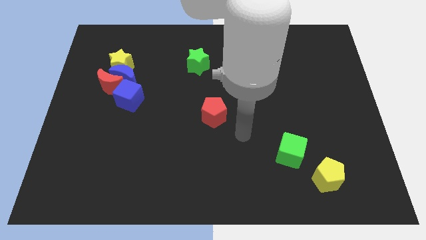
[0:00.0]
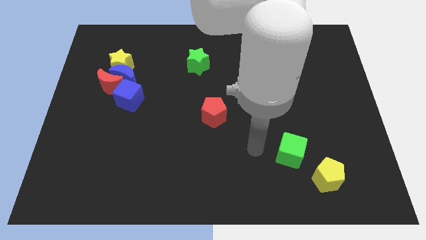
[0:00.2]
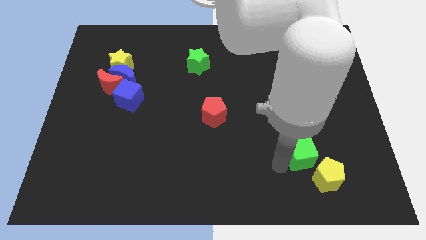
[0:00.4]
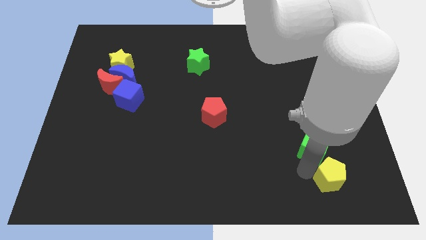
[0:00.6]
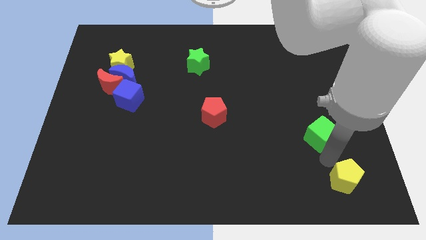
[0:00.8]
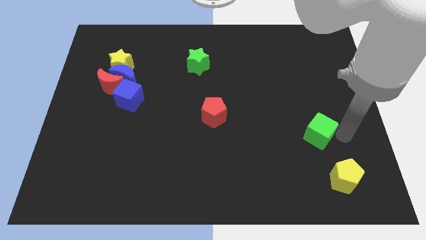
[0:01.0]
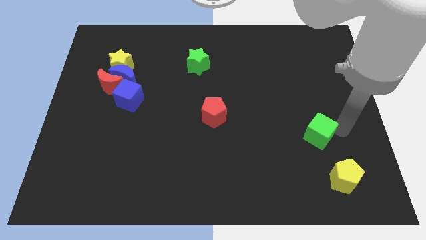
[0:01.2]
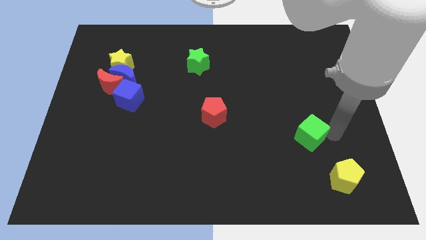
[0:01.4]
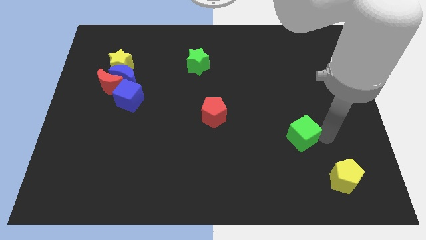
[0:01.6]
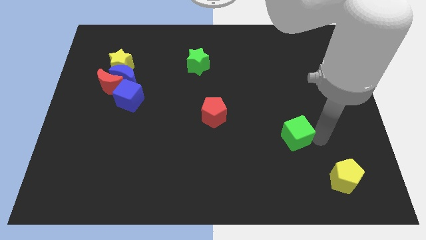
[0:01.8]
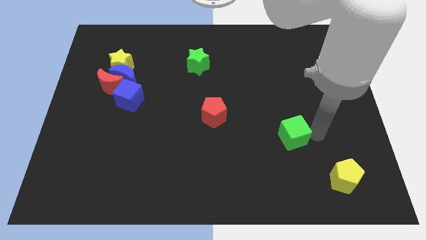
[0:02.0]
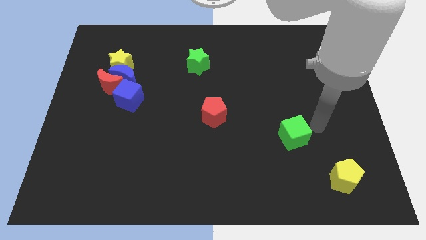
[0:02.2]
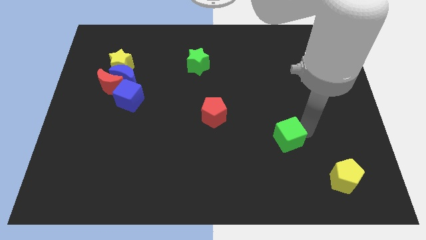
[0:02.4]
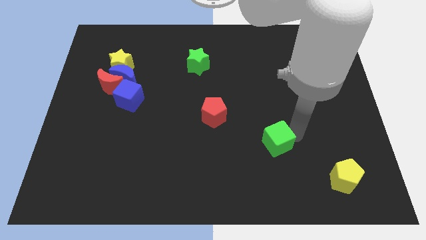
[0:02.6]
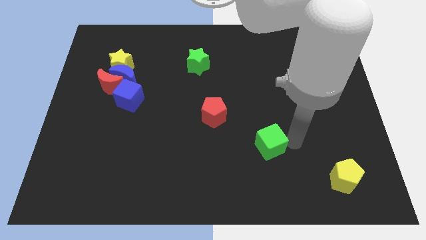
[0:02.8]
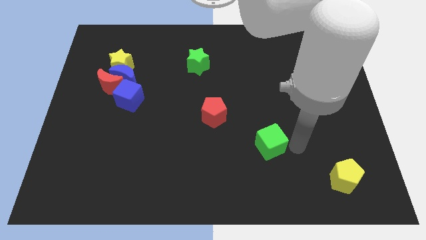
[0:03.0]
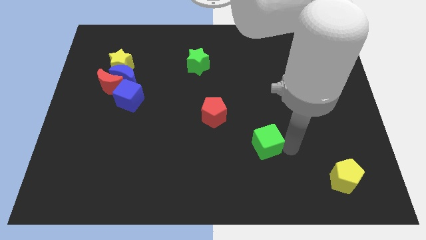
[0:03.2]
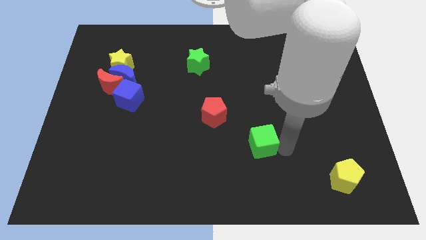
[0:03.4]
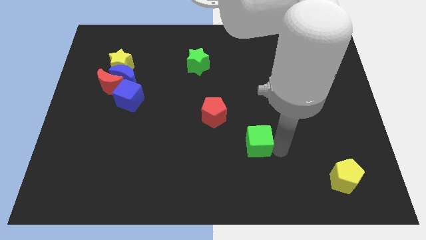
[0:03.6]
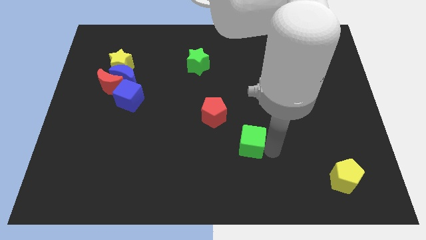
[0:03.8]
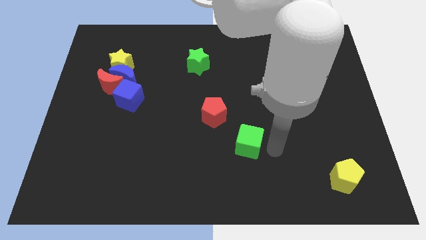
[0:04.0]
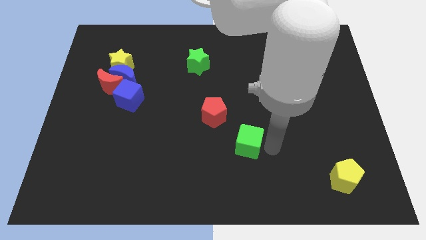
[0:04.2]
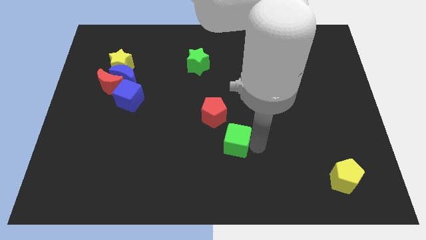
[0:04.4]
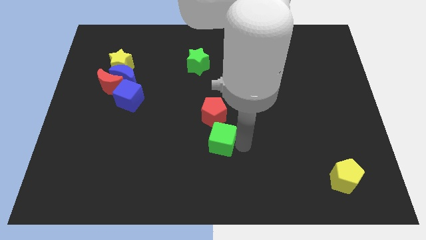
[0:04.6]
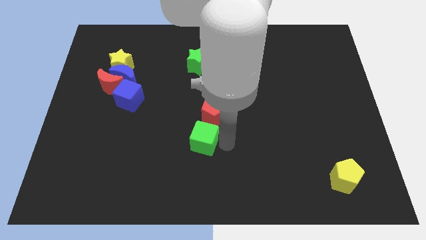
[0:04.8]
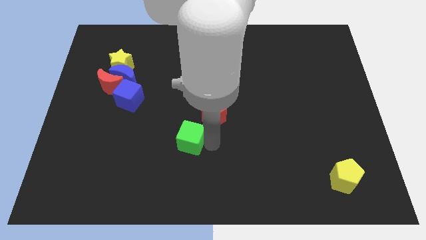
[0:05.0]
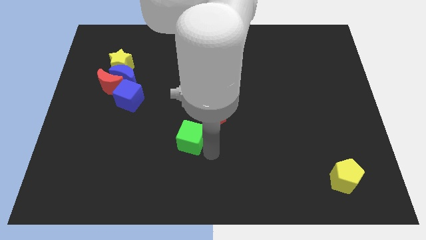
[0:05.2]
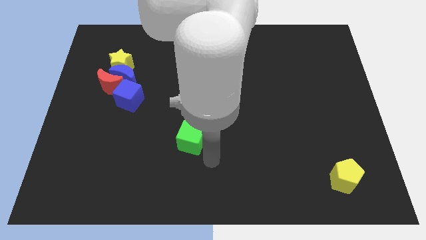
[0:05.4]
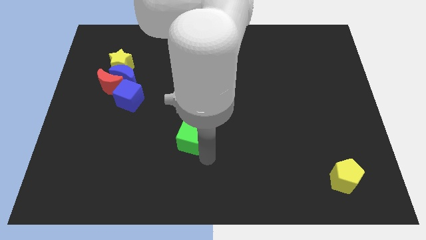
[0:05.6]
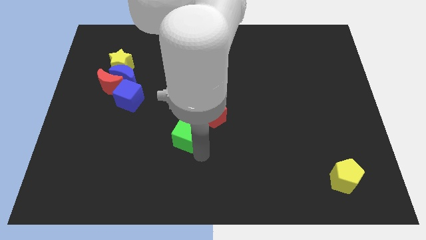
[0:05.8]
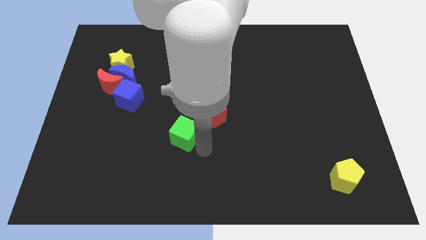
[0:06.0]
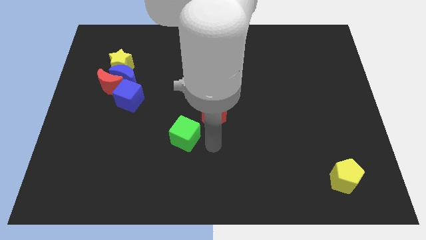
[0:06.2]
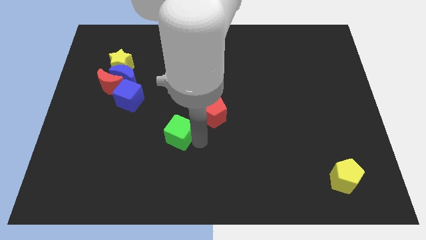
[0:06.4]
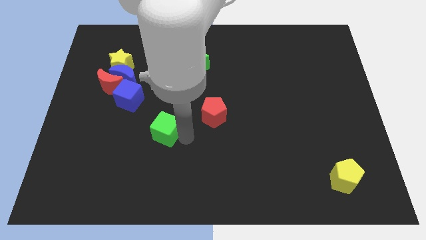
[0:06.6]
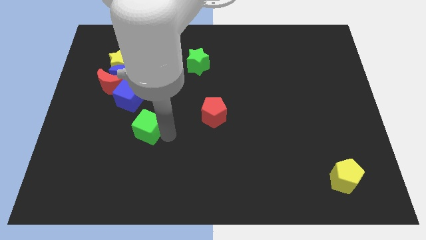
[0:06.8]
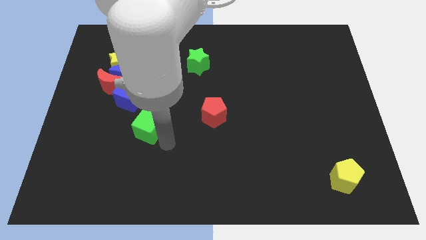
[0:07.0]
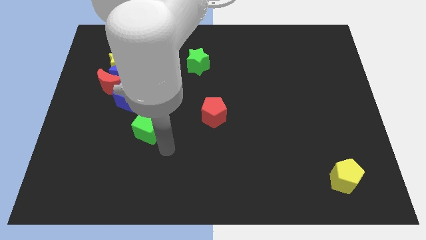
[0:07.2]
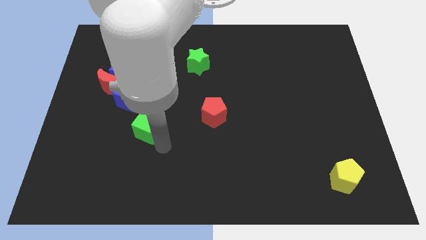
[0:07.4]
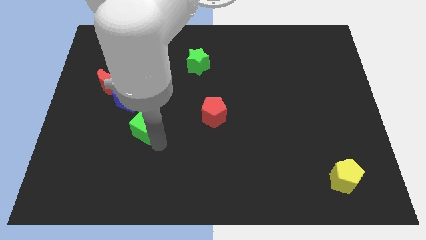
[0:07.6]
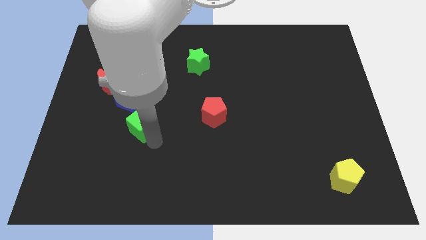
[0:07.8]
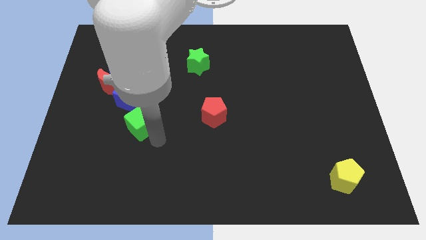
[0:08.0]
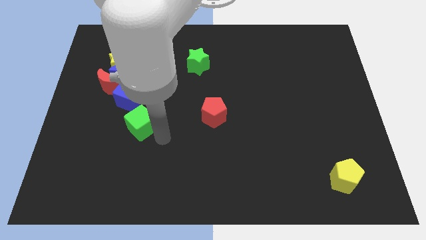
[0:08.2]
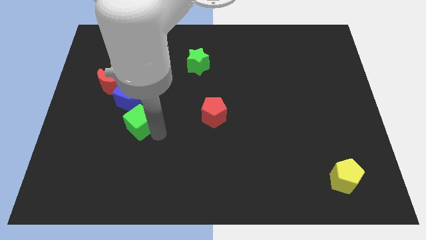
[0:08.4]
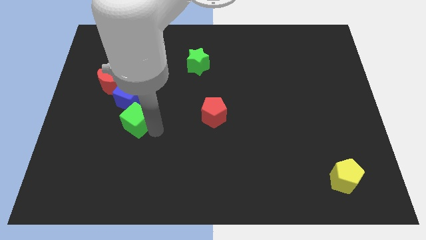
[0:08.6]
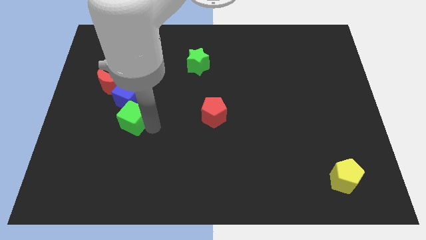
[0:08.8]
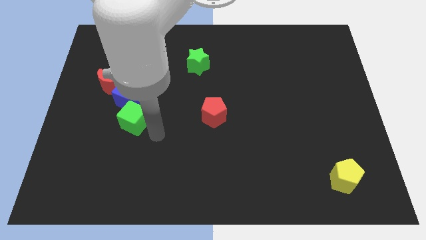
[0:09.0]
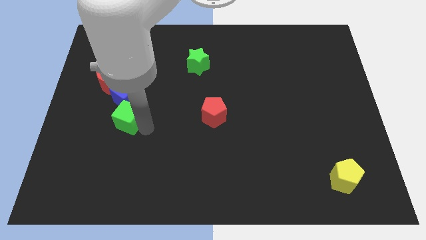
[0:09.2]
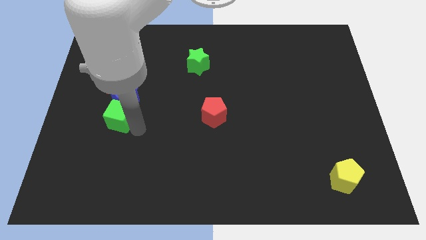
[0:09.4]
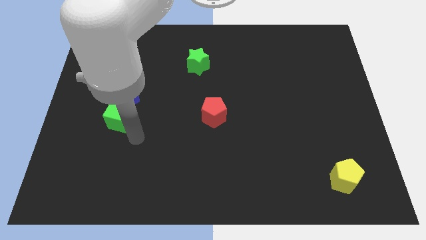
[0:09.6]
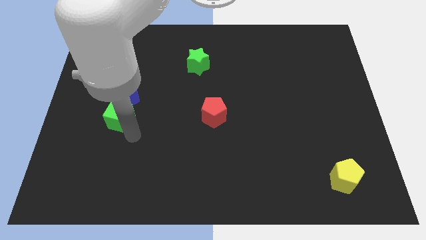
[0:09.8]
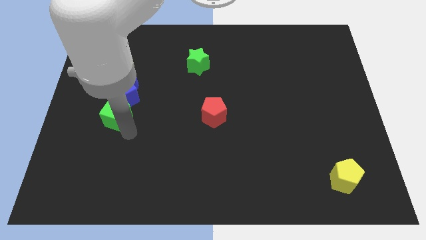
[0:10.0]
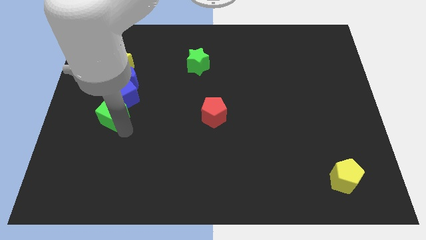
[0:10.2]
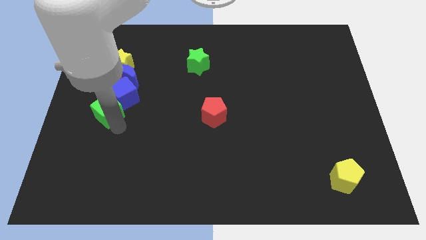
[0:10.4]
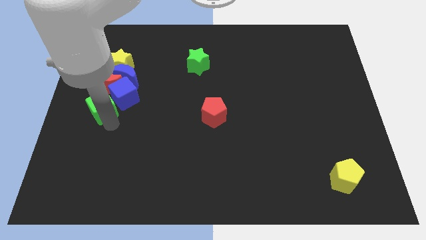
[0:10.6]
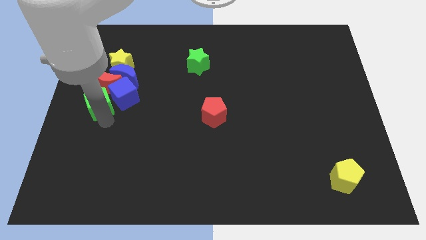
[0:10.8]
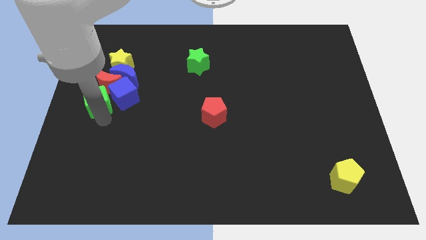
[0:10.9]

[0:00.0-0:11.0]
put the green cube close to the red moon

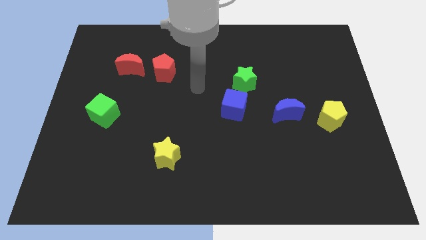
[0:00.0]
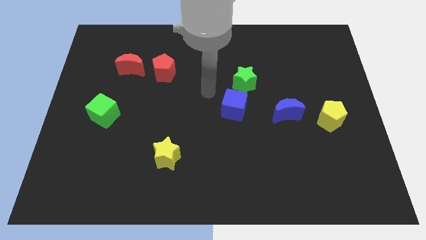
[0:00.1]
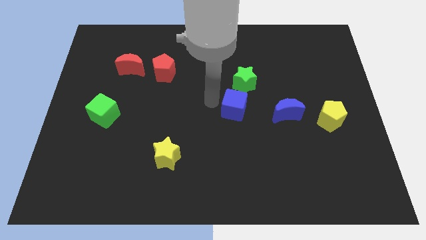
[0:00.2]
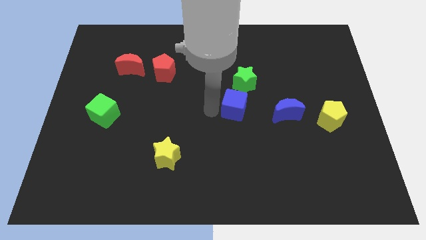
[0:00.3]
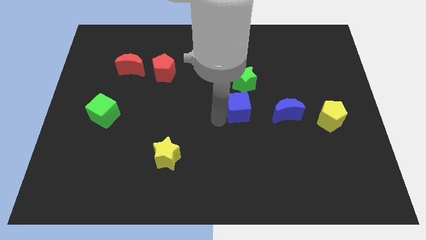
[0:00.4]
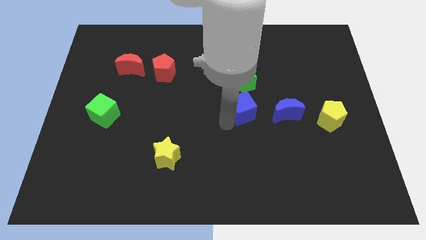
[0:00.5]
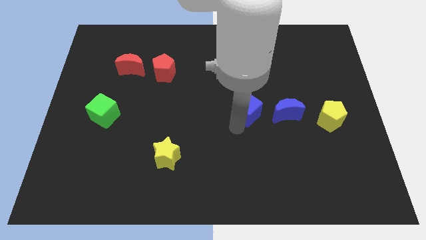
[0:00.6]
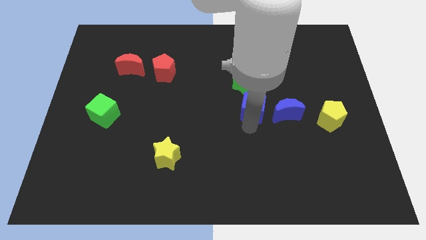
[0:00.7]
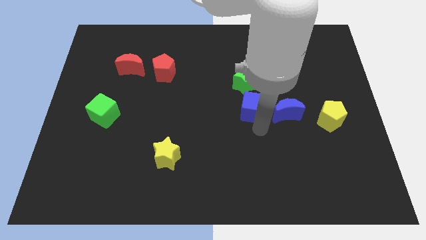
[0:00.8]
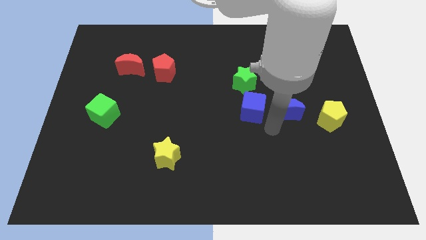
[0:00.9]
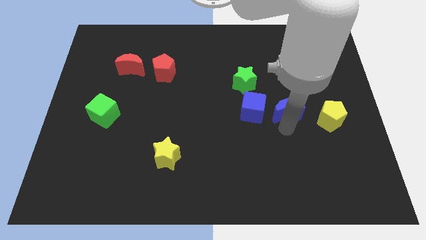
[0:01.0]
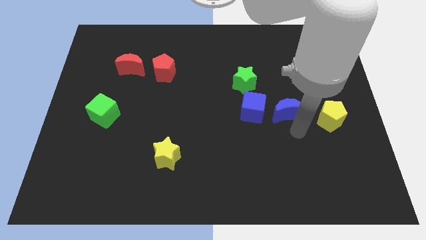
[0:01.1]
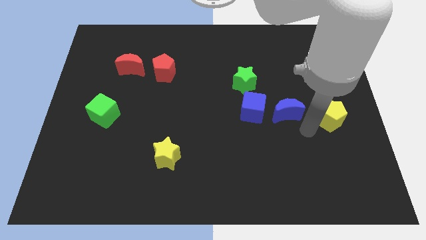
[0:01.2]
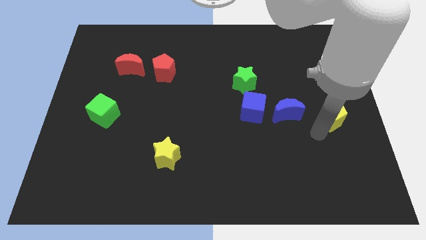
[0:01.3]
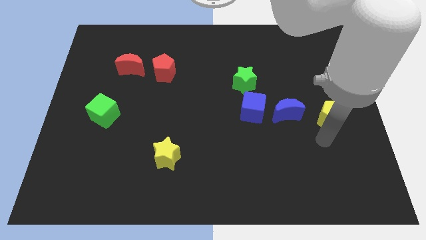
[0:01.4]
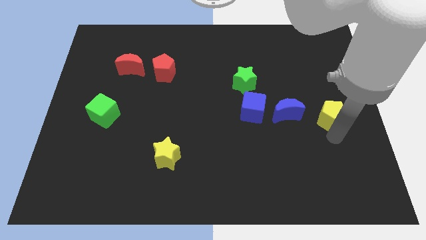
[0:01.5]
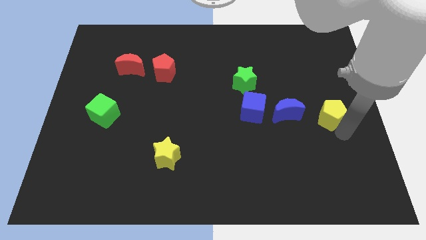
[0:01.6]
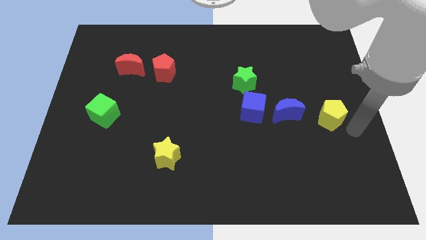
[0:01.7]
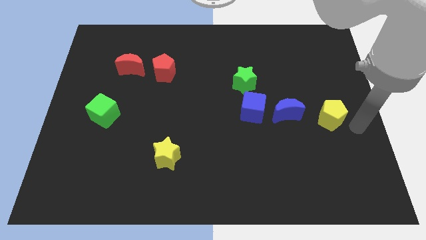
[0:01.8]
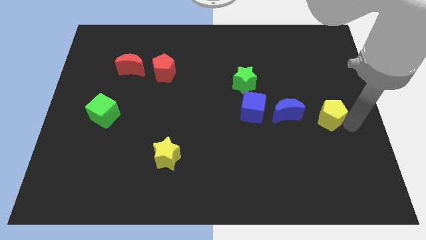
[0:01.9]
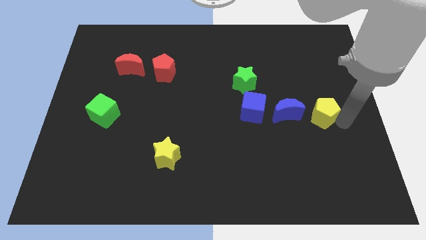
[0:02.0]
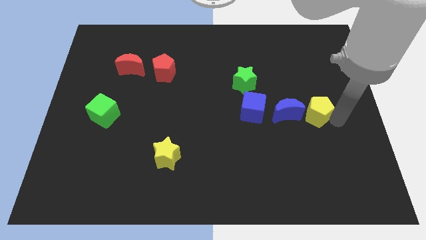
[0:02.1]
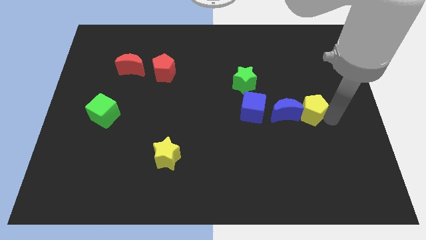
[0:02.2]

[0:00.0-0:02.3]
slide the yellow pentagon close to the blue moon
